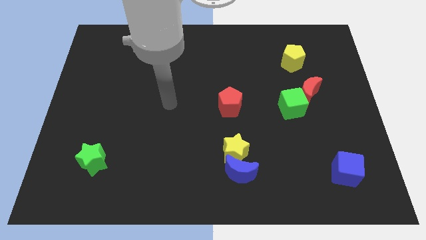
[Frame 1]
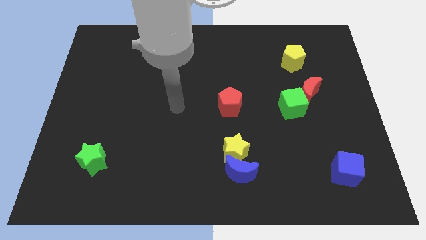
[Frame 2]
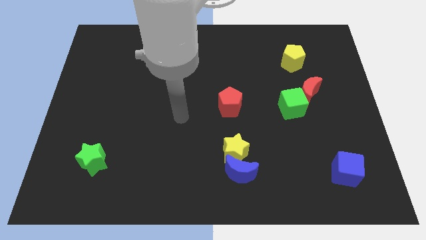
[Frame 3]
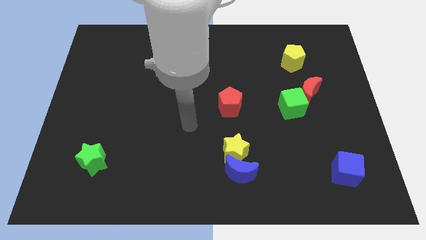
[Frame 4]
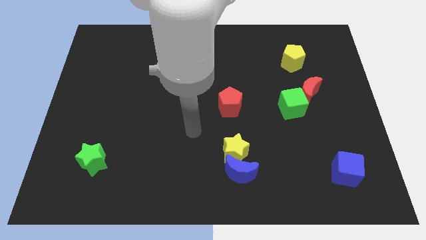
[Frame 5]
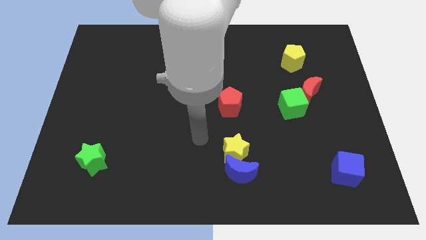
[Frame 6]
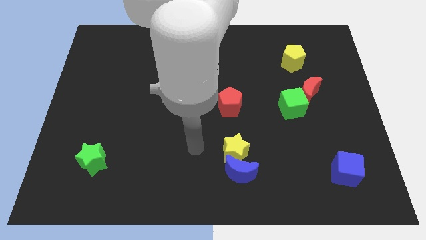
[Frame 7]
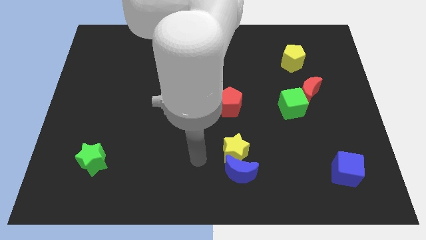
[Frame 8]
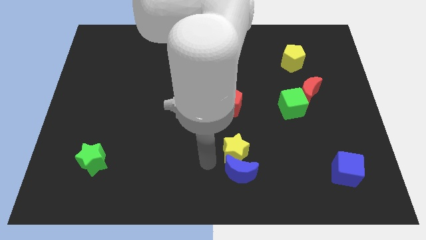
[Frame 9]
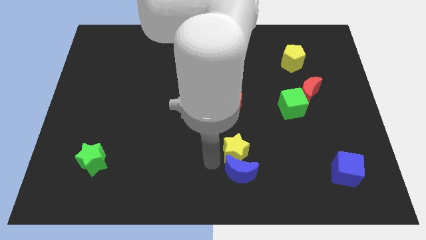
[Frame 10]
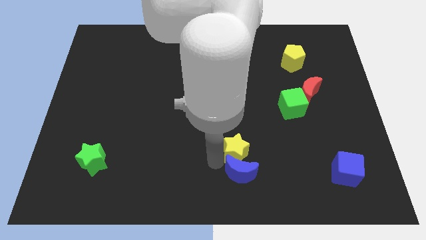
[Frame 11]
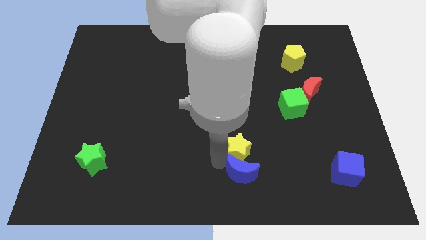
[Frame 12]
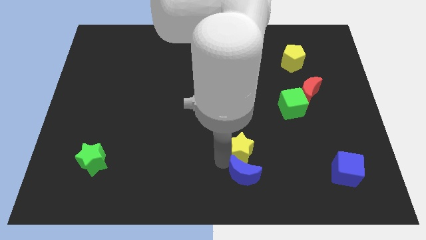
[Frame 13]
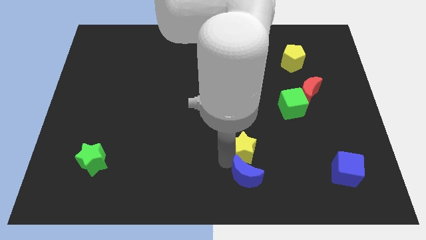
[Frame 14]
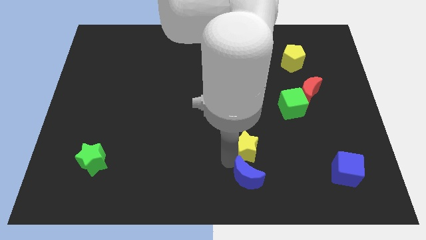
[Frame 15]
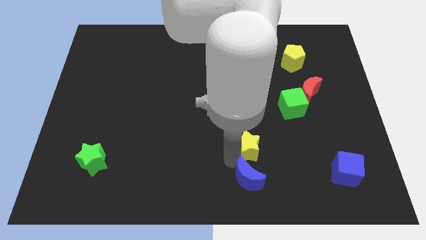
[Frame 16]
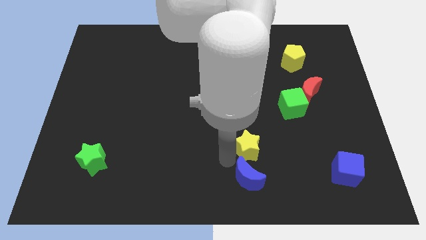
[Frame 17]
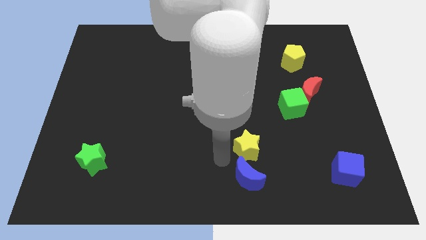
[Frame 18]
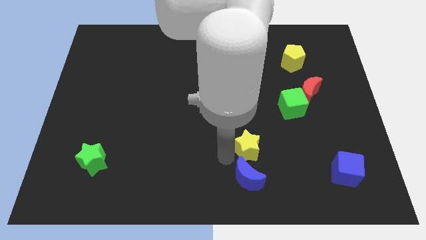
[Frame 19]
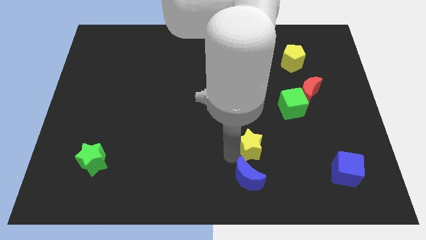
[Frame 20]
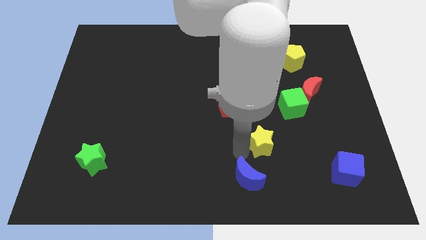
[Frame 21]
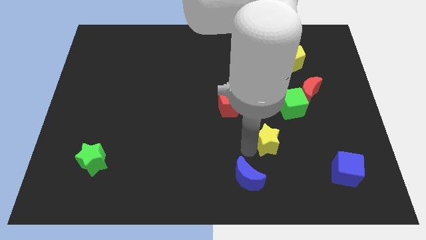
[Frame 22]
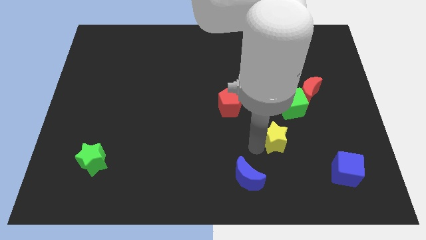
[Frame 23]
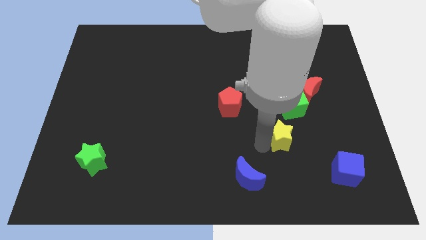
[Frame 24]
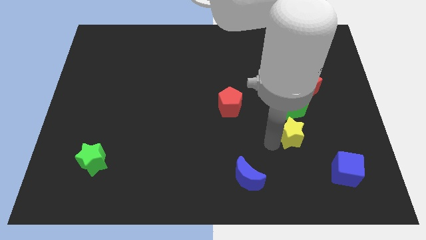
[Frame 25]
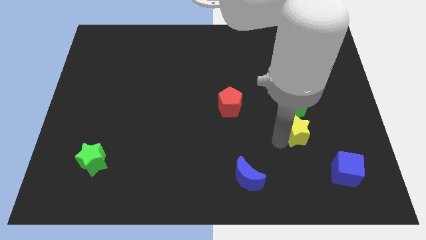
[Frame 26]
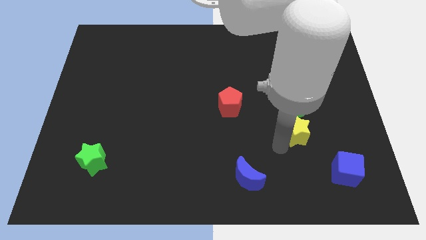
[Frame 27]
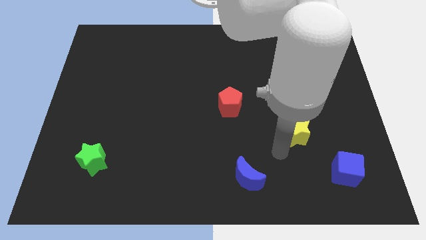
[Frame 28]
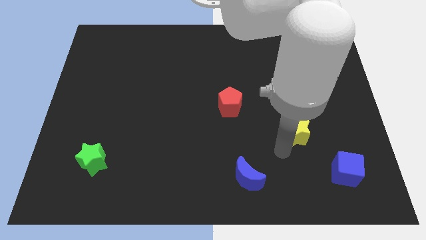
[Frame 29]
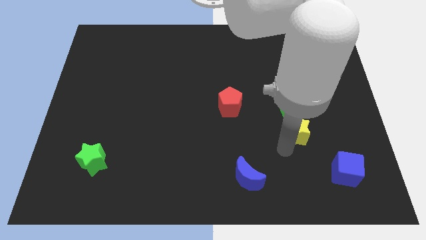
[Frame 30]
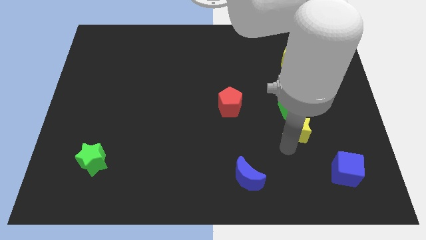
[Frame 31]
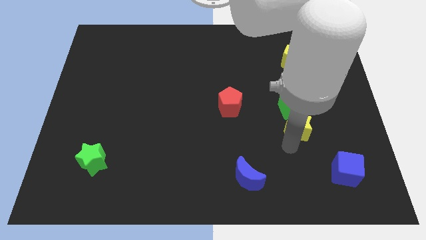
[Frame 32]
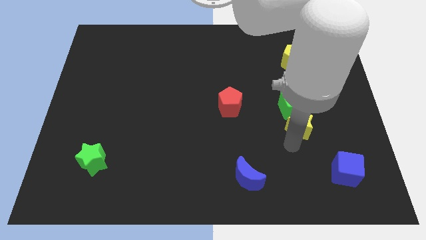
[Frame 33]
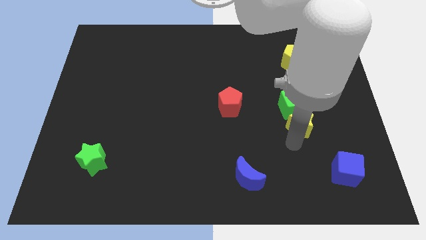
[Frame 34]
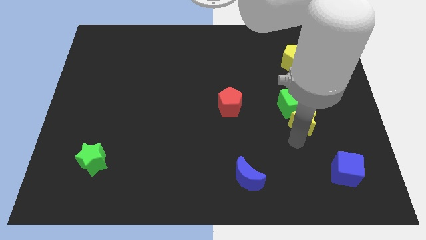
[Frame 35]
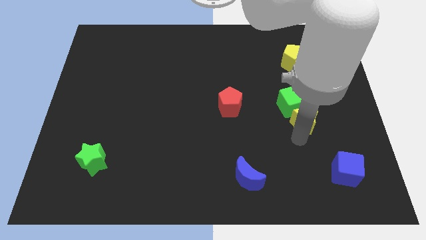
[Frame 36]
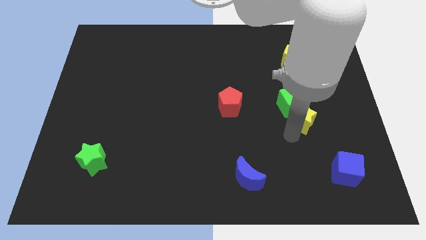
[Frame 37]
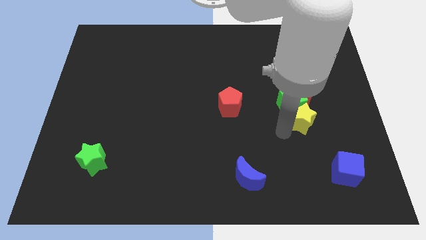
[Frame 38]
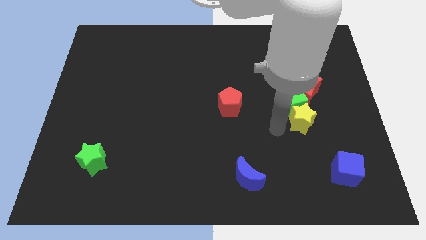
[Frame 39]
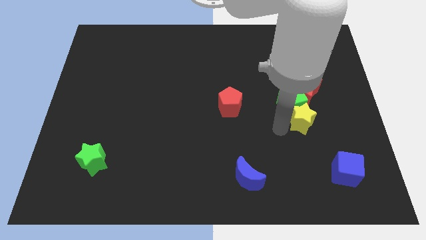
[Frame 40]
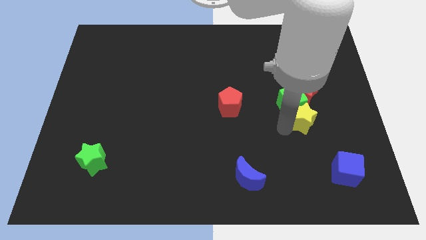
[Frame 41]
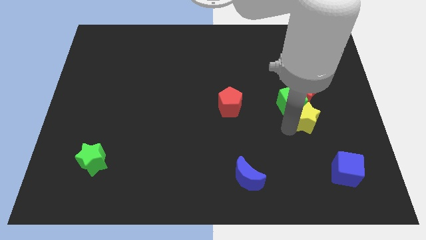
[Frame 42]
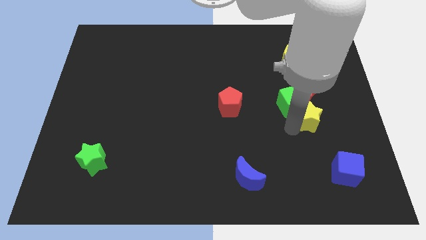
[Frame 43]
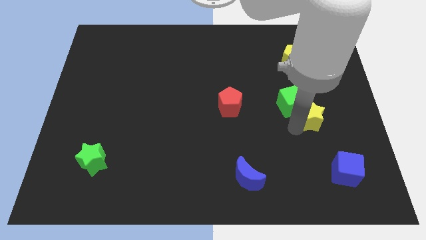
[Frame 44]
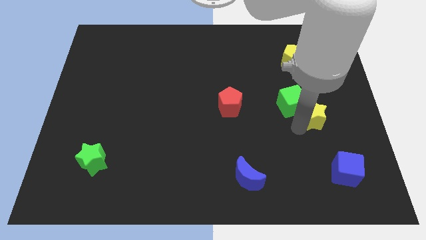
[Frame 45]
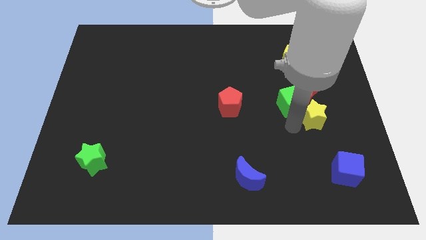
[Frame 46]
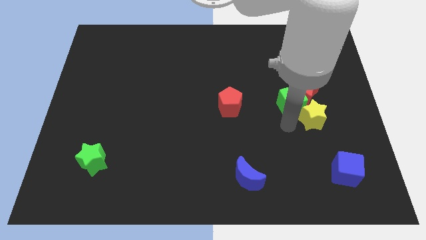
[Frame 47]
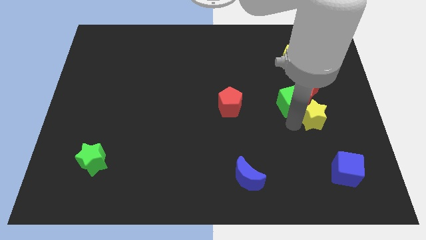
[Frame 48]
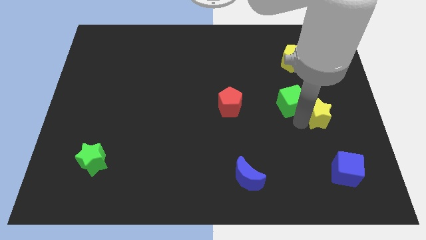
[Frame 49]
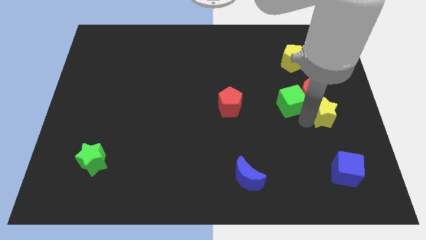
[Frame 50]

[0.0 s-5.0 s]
put the yellow star to the right side of the board

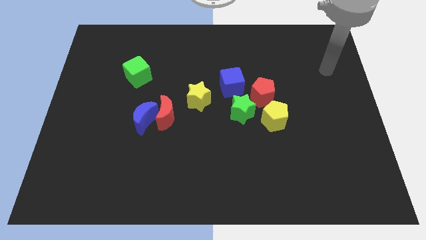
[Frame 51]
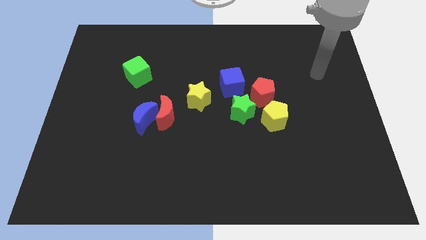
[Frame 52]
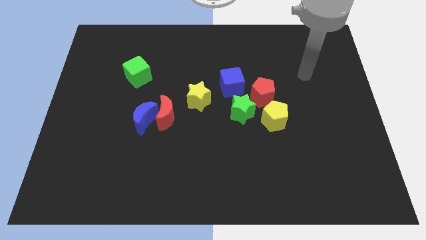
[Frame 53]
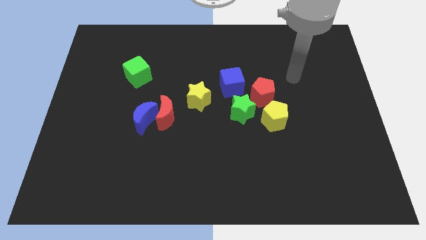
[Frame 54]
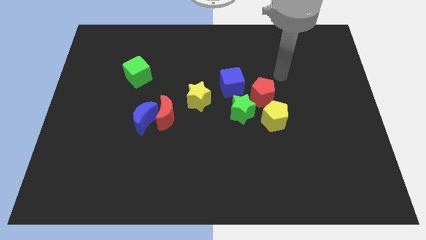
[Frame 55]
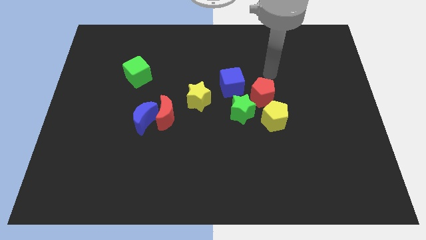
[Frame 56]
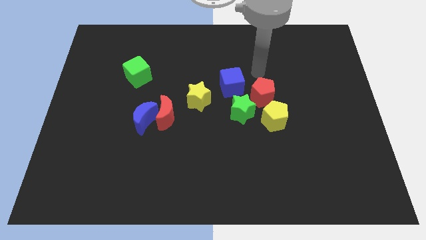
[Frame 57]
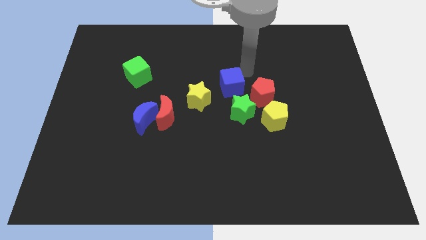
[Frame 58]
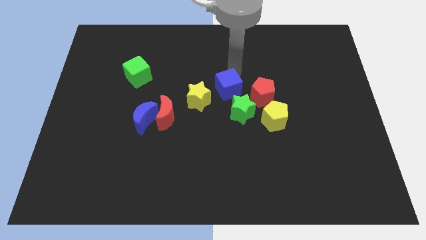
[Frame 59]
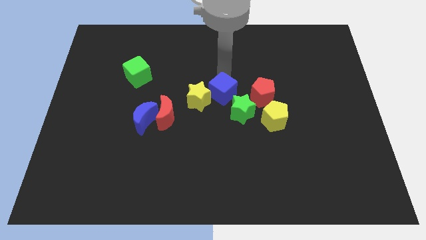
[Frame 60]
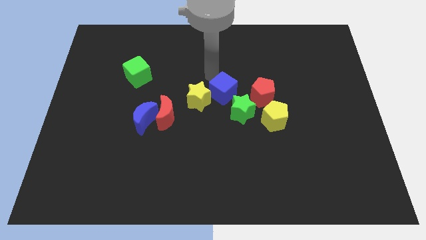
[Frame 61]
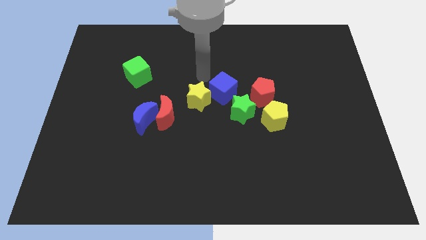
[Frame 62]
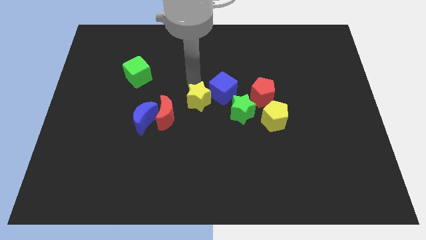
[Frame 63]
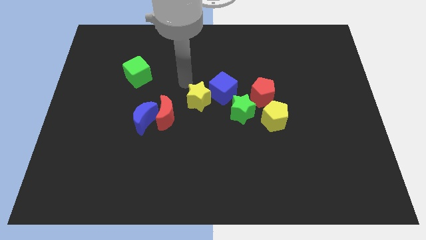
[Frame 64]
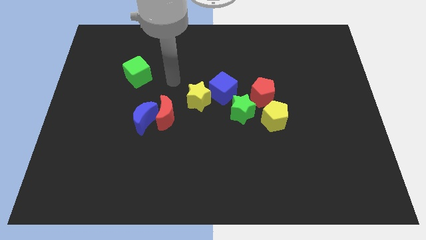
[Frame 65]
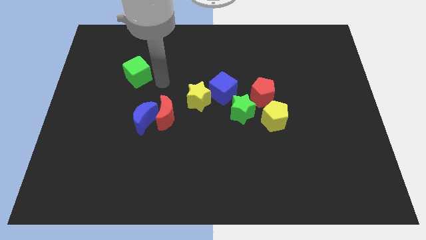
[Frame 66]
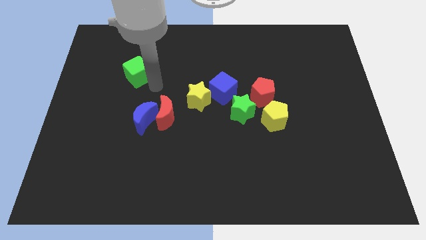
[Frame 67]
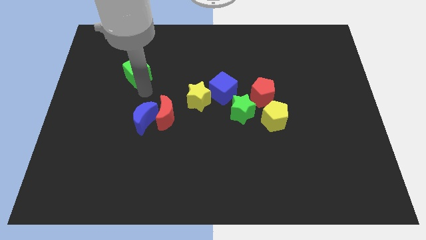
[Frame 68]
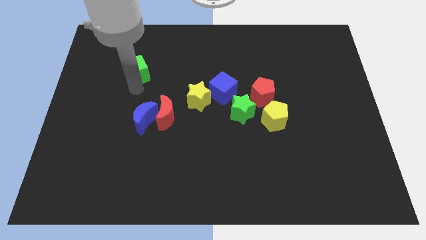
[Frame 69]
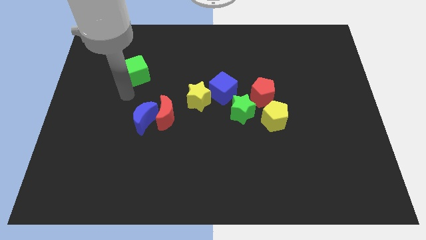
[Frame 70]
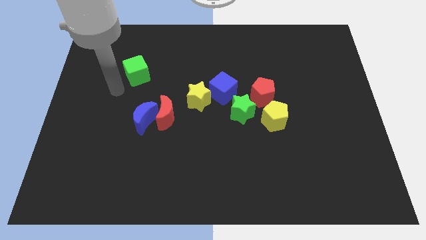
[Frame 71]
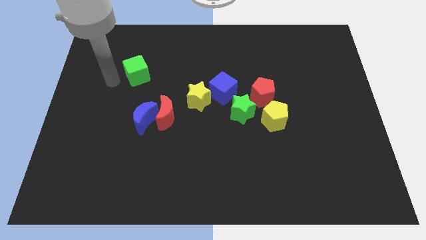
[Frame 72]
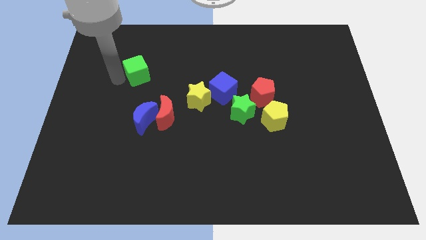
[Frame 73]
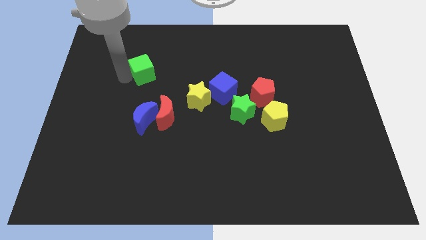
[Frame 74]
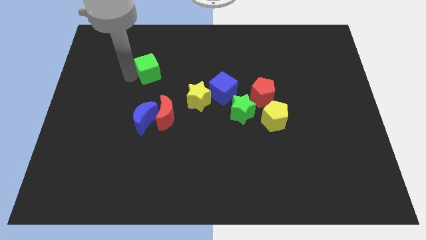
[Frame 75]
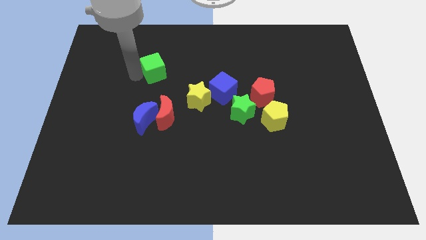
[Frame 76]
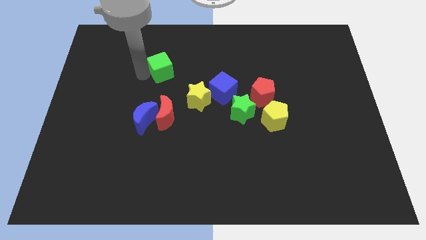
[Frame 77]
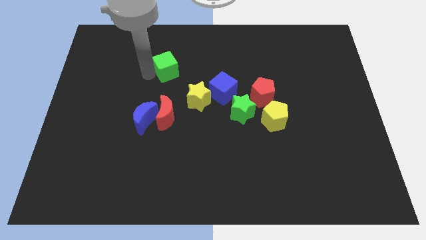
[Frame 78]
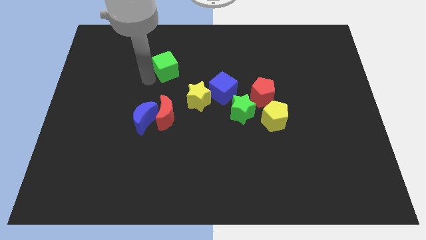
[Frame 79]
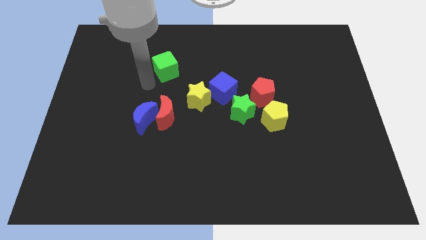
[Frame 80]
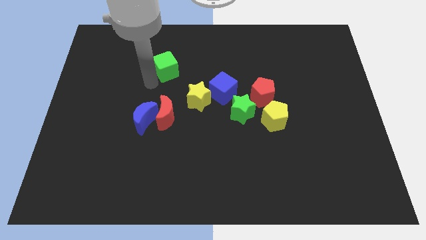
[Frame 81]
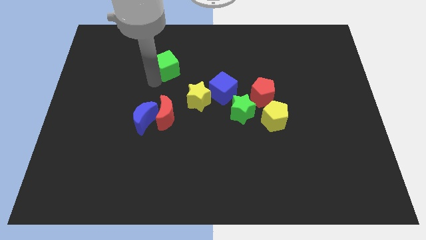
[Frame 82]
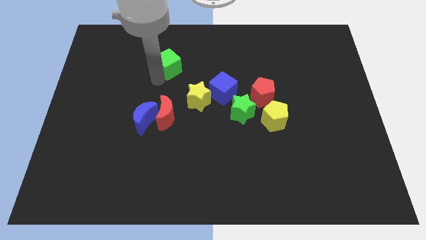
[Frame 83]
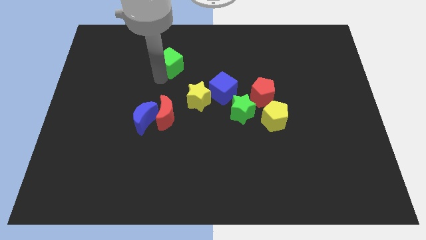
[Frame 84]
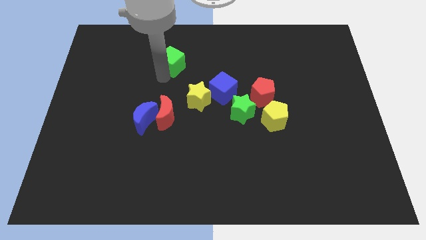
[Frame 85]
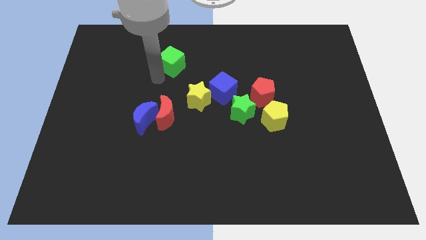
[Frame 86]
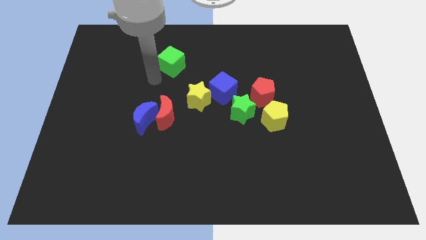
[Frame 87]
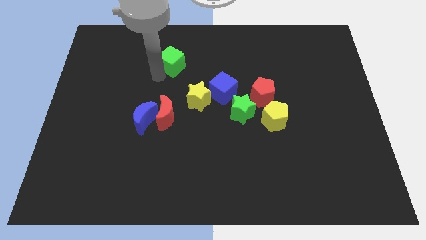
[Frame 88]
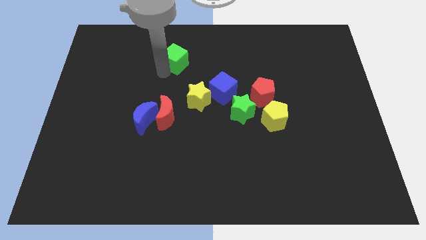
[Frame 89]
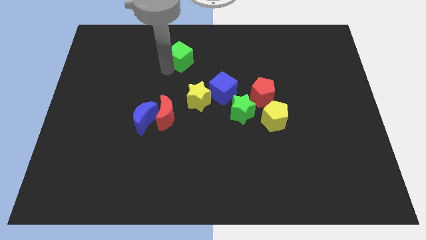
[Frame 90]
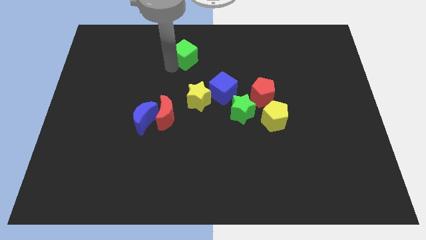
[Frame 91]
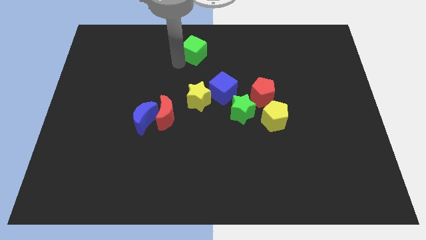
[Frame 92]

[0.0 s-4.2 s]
move the green cube to the towards your base
